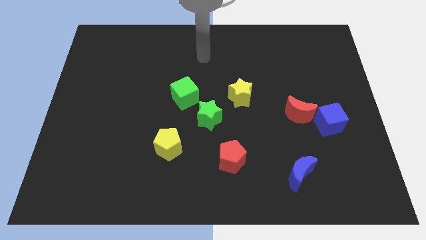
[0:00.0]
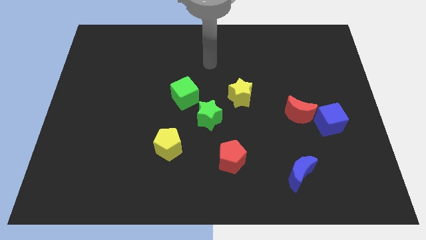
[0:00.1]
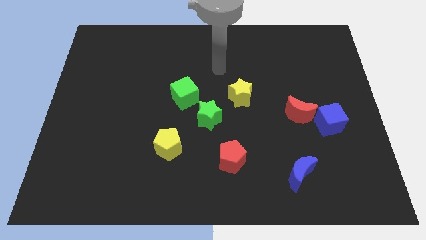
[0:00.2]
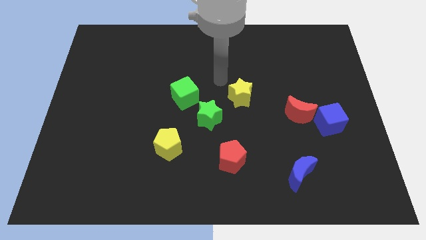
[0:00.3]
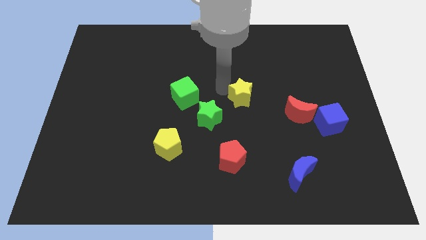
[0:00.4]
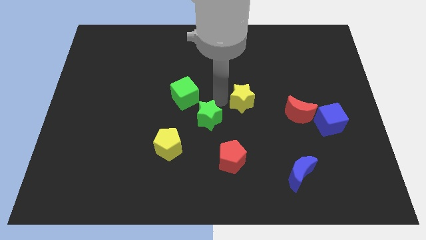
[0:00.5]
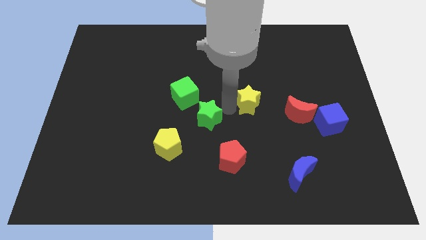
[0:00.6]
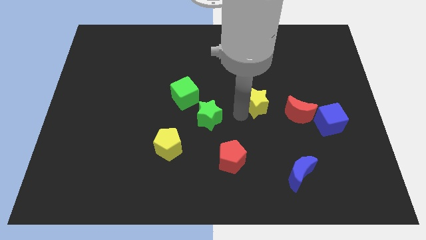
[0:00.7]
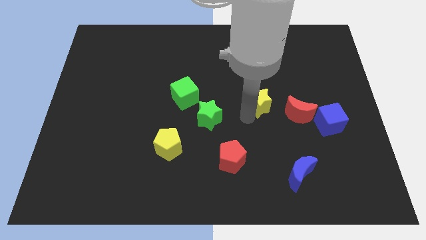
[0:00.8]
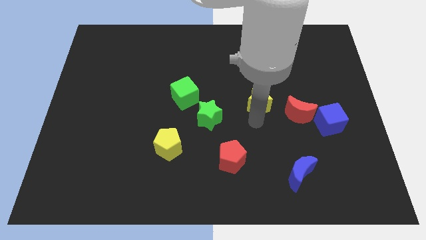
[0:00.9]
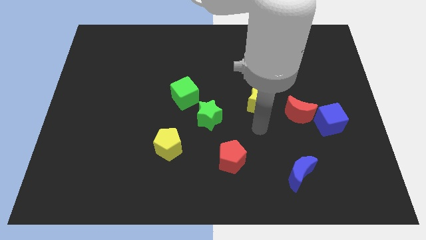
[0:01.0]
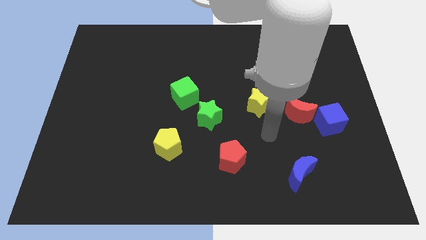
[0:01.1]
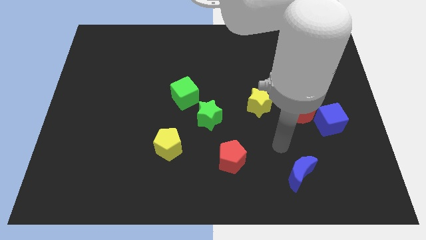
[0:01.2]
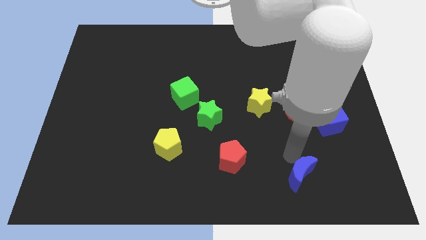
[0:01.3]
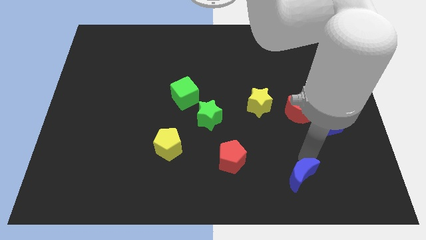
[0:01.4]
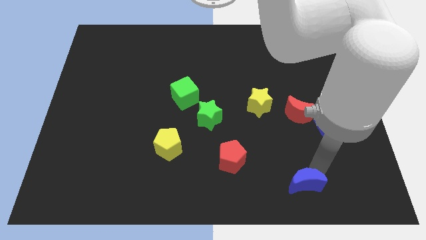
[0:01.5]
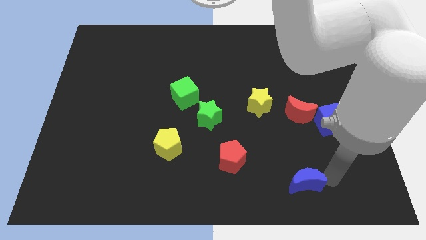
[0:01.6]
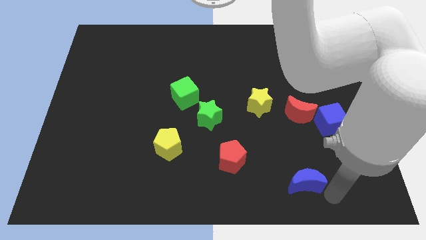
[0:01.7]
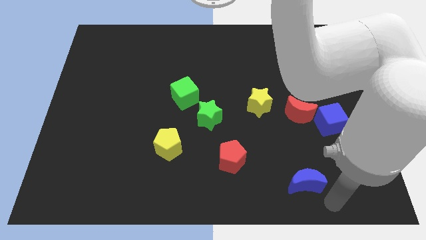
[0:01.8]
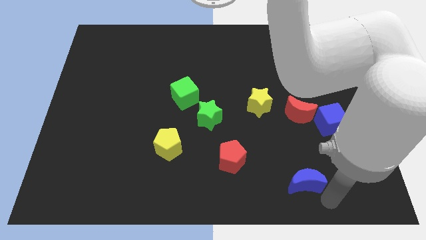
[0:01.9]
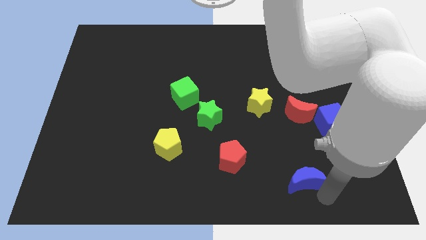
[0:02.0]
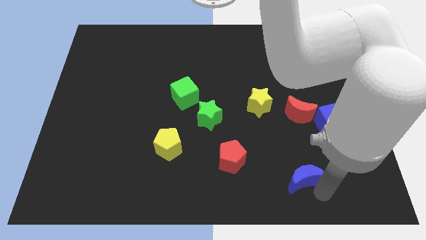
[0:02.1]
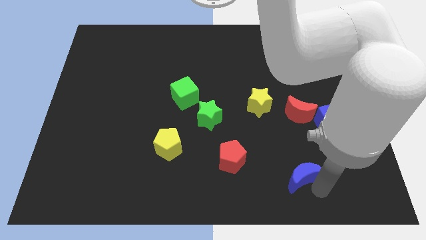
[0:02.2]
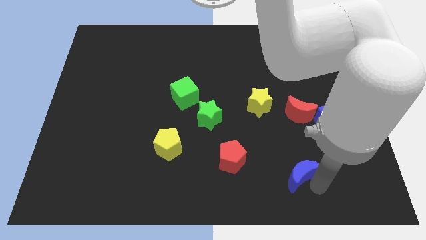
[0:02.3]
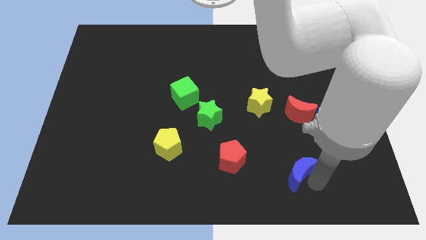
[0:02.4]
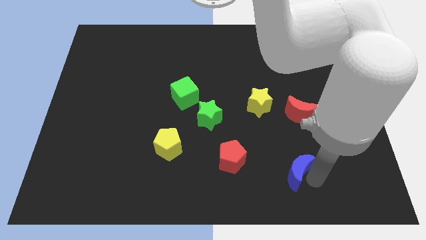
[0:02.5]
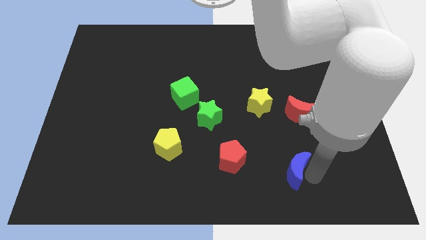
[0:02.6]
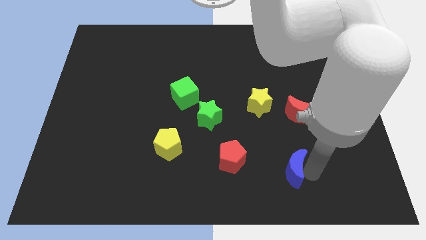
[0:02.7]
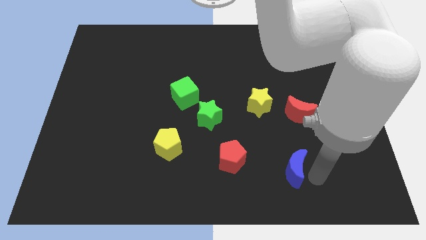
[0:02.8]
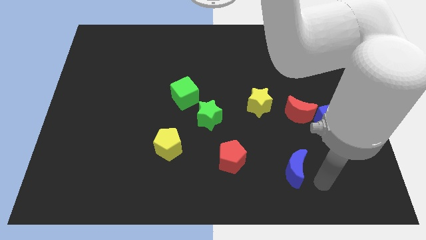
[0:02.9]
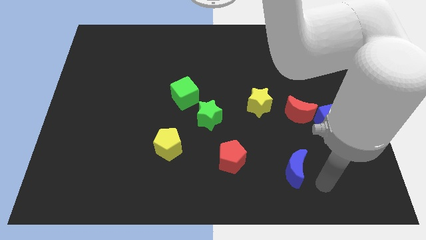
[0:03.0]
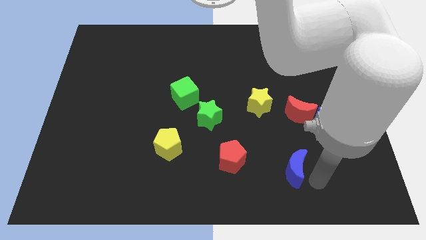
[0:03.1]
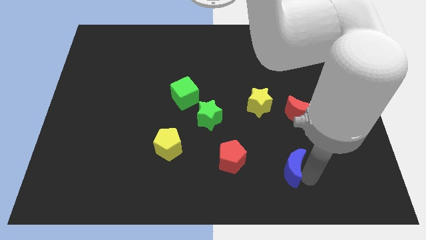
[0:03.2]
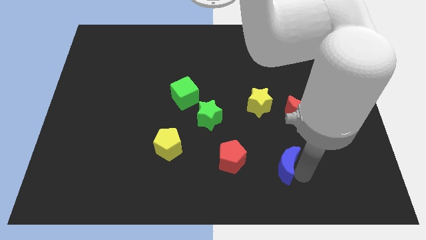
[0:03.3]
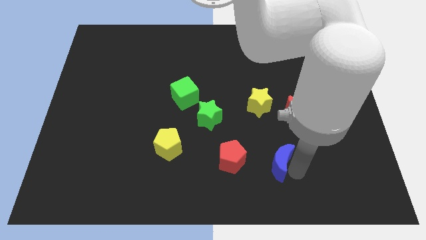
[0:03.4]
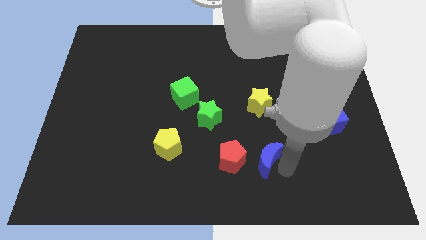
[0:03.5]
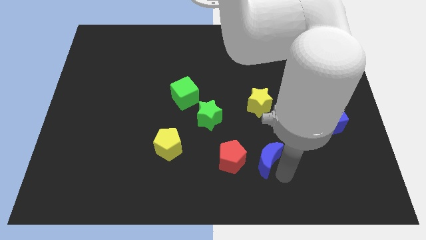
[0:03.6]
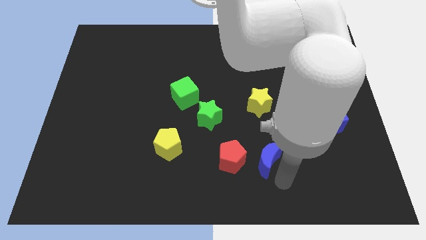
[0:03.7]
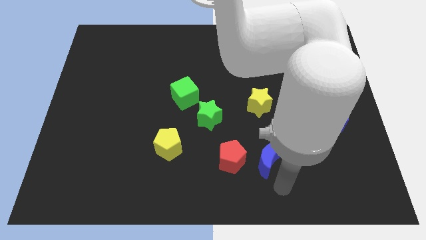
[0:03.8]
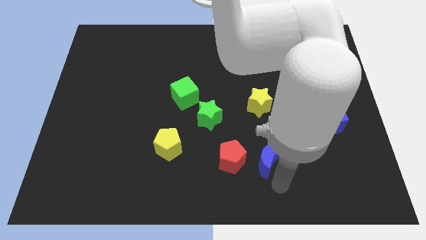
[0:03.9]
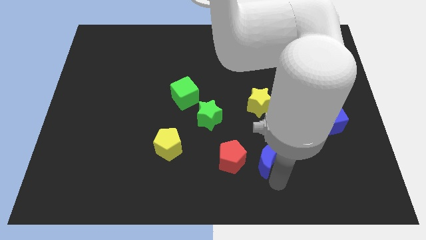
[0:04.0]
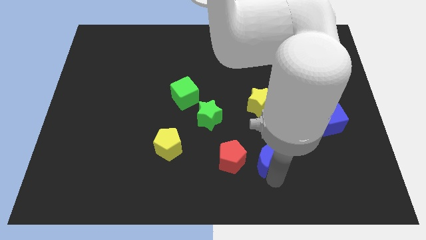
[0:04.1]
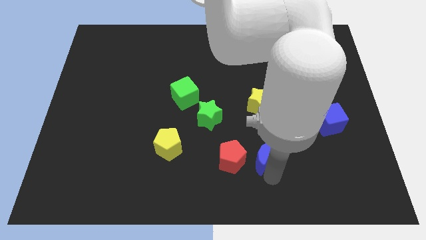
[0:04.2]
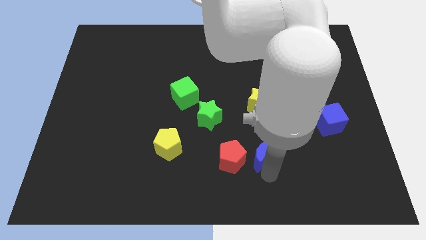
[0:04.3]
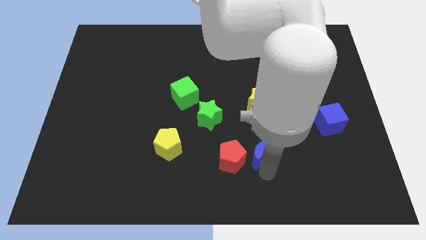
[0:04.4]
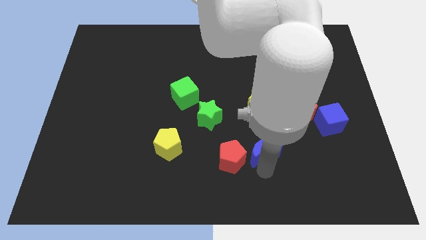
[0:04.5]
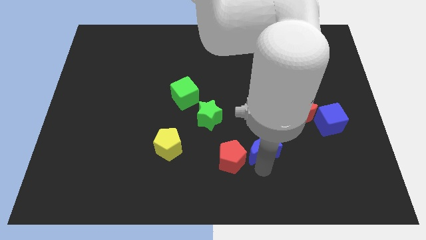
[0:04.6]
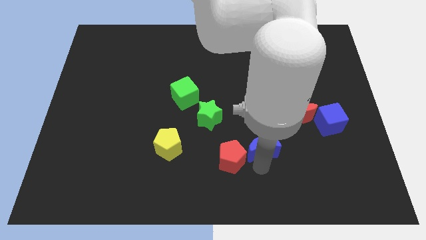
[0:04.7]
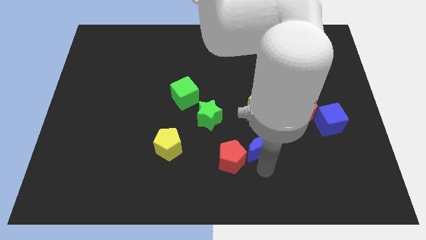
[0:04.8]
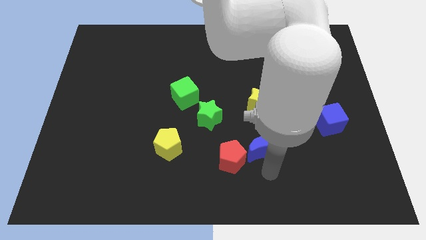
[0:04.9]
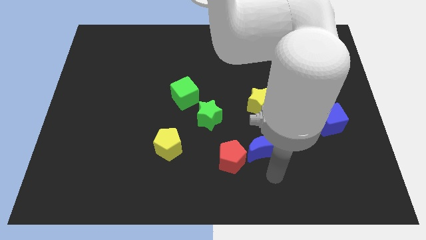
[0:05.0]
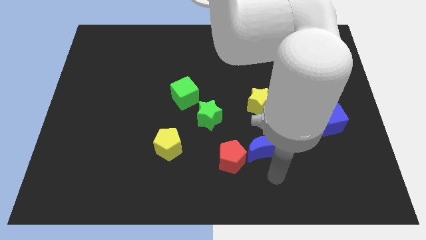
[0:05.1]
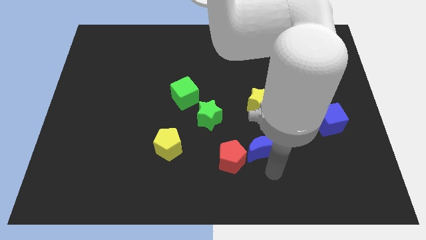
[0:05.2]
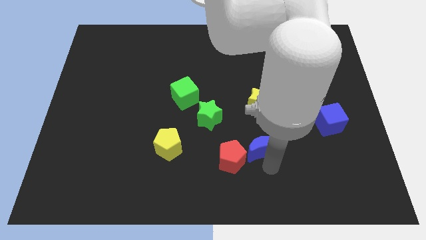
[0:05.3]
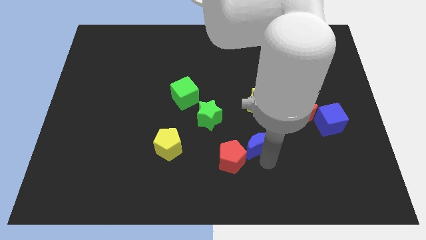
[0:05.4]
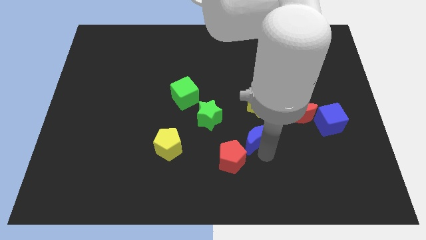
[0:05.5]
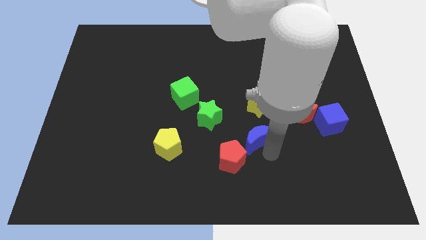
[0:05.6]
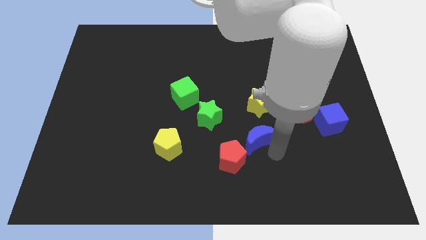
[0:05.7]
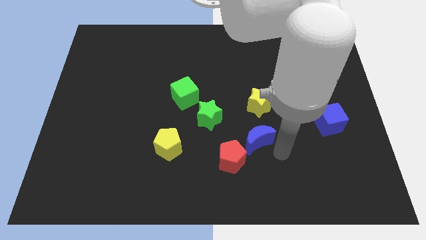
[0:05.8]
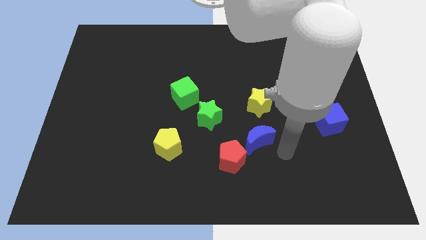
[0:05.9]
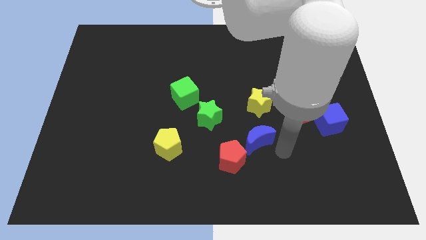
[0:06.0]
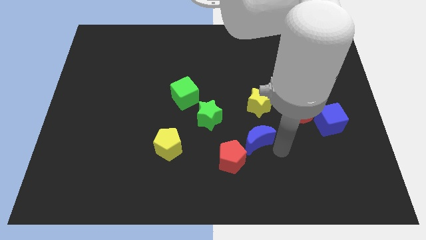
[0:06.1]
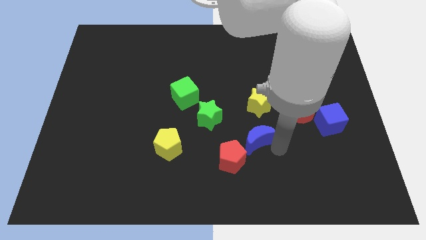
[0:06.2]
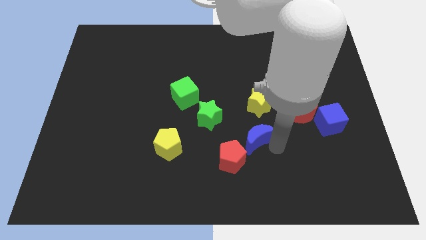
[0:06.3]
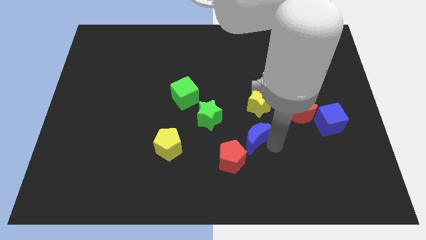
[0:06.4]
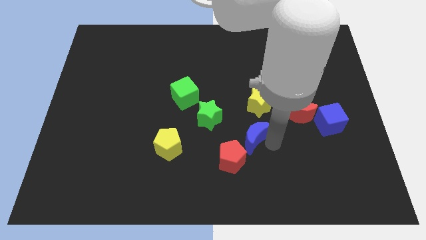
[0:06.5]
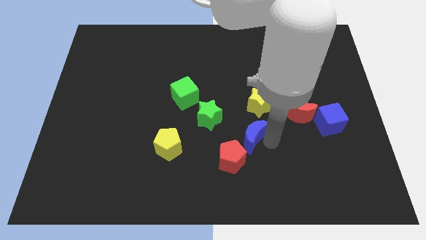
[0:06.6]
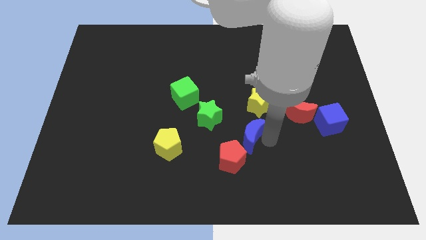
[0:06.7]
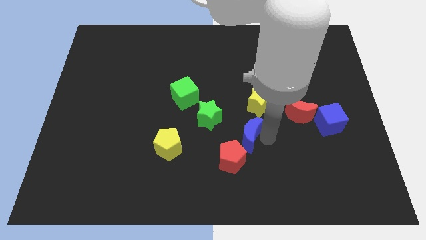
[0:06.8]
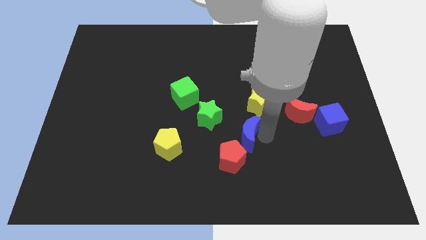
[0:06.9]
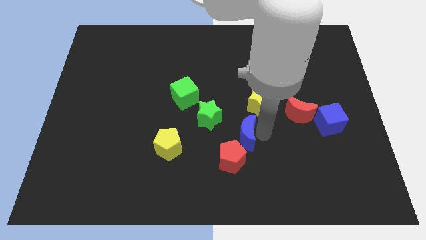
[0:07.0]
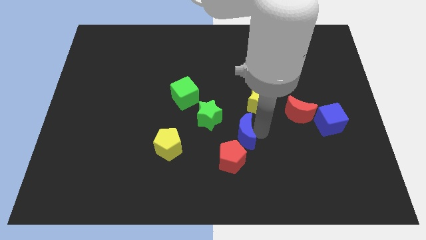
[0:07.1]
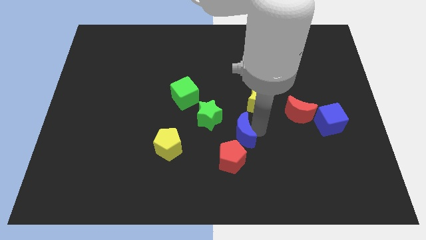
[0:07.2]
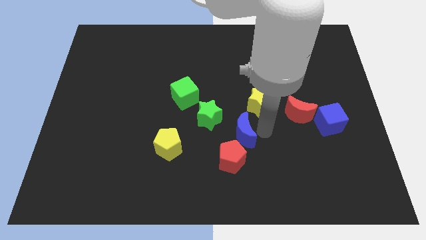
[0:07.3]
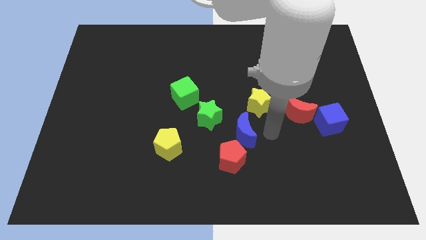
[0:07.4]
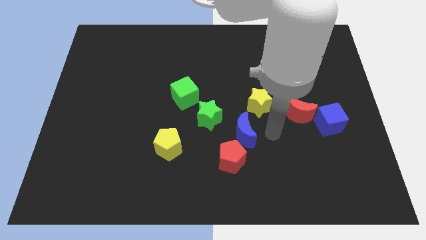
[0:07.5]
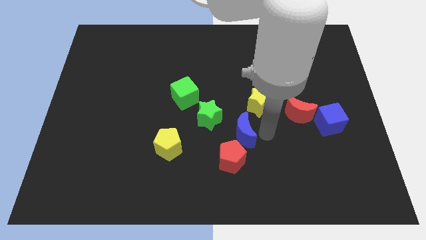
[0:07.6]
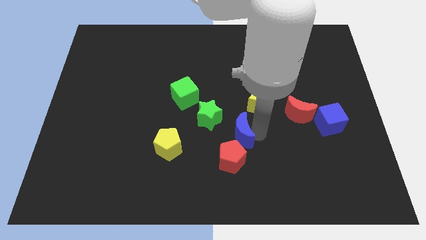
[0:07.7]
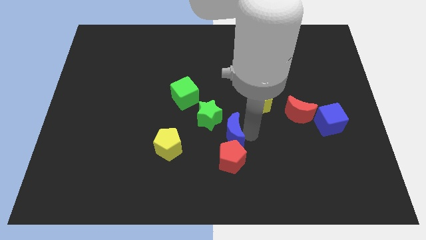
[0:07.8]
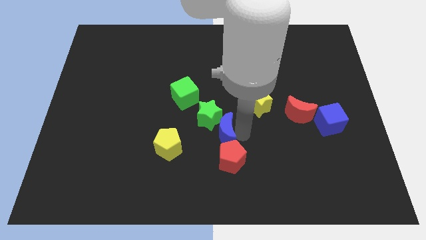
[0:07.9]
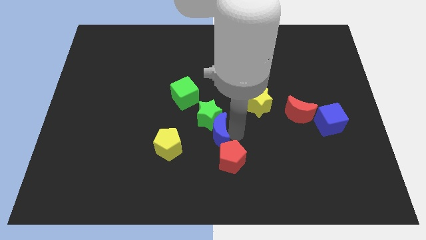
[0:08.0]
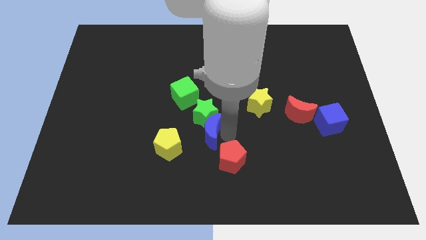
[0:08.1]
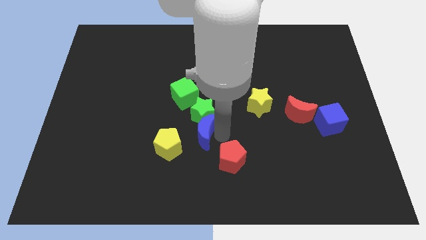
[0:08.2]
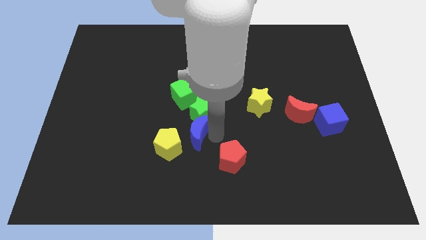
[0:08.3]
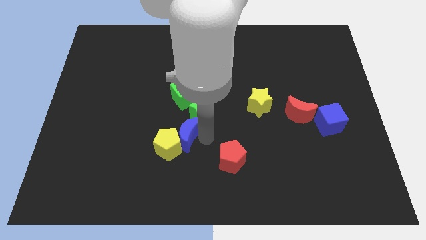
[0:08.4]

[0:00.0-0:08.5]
put the blue moon above the yellow pentagon
